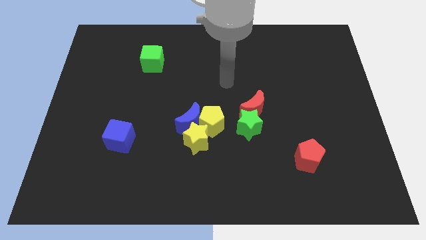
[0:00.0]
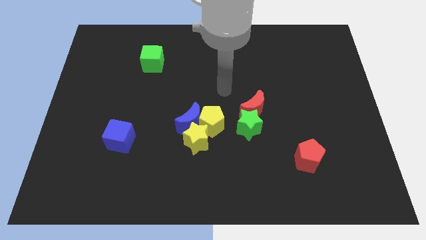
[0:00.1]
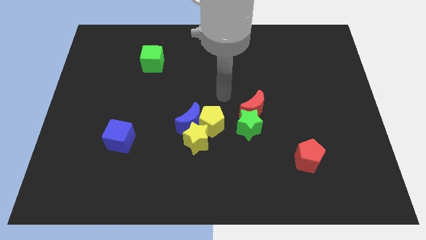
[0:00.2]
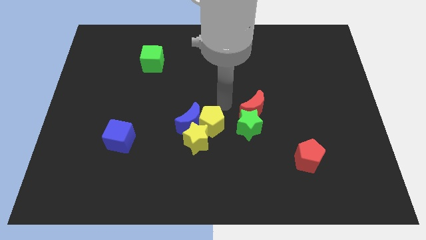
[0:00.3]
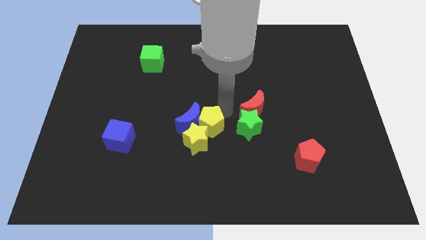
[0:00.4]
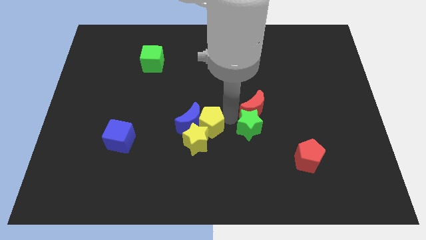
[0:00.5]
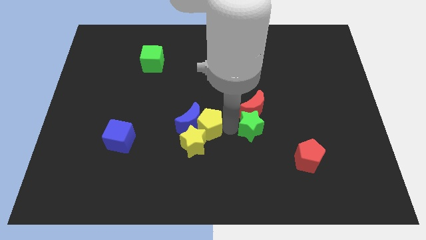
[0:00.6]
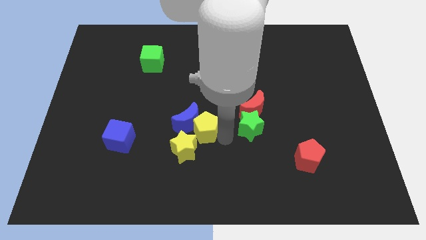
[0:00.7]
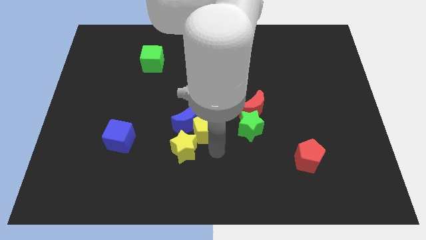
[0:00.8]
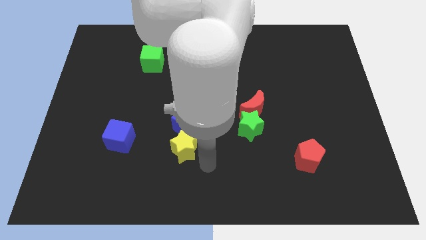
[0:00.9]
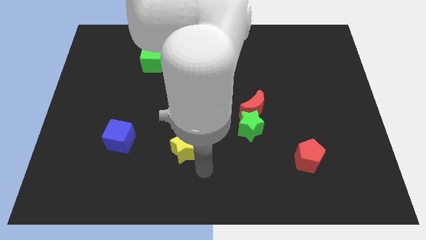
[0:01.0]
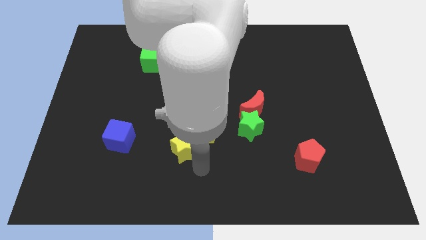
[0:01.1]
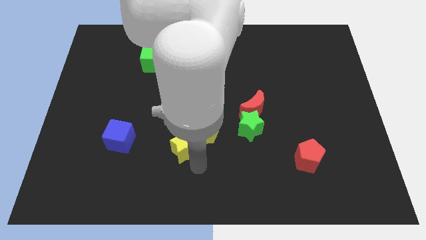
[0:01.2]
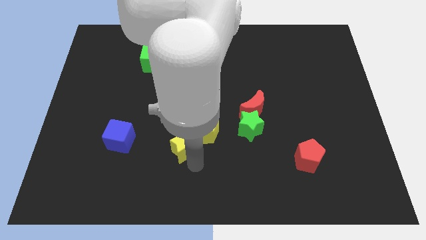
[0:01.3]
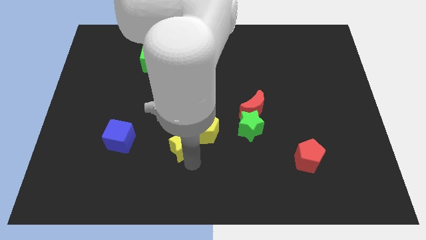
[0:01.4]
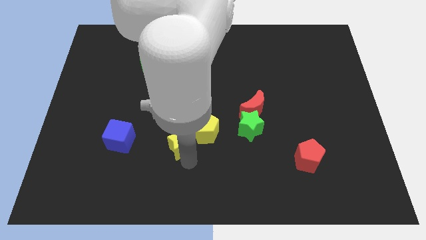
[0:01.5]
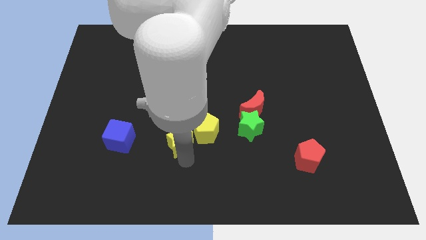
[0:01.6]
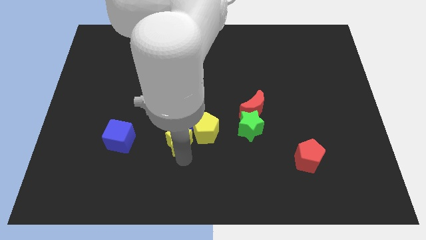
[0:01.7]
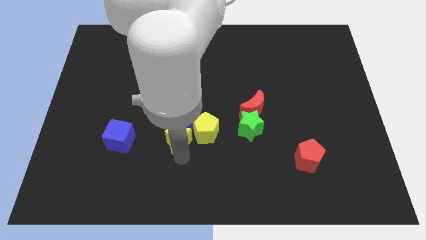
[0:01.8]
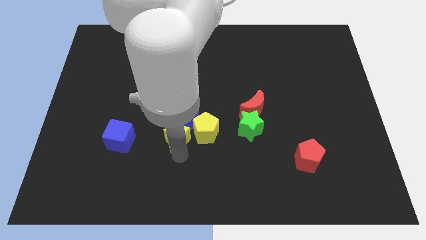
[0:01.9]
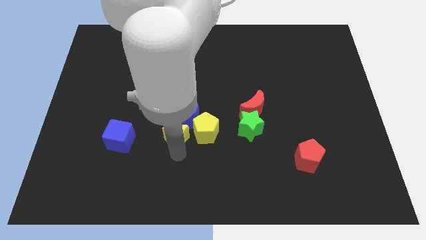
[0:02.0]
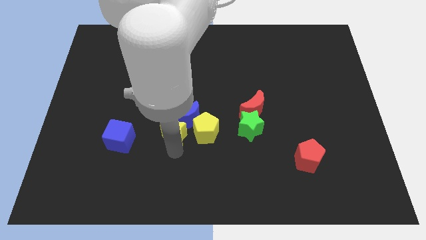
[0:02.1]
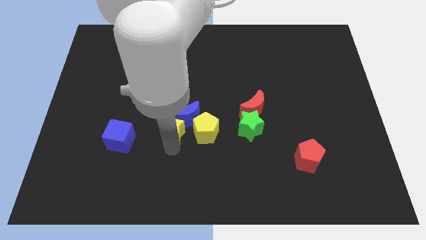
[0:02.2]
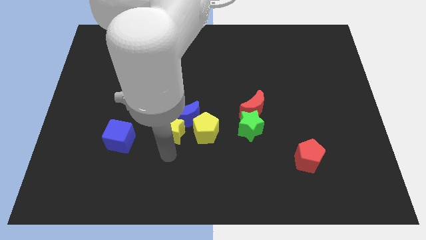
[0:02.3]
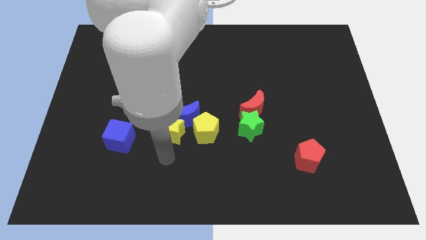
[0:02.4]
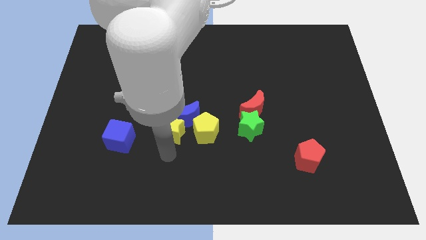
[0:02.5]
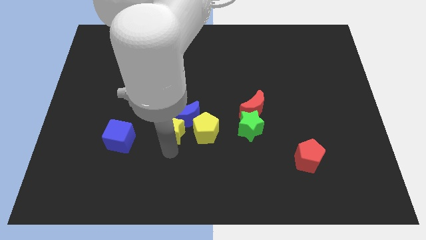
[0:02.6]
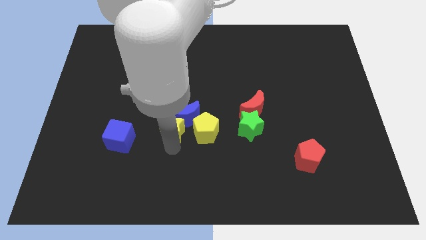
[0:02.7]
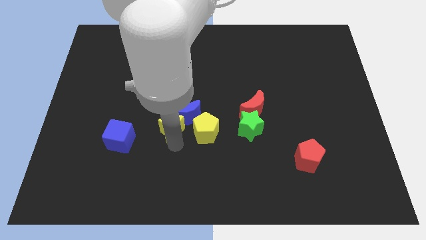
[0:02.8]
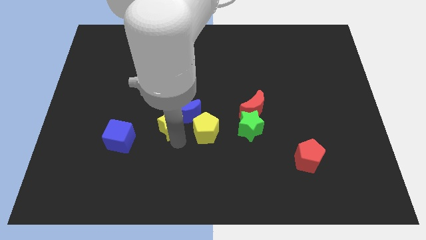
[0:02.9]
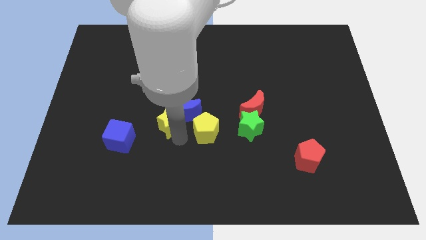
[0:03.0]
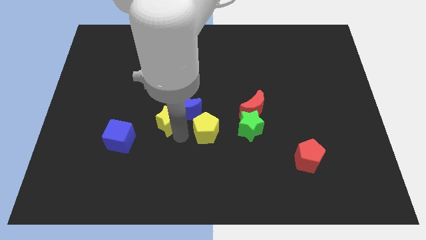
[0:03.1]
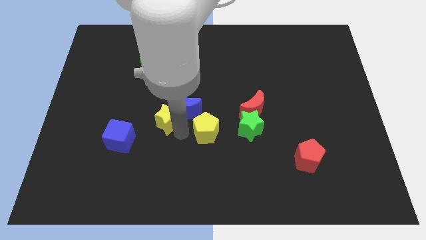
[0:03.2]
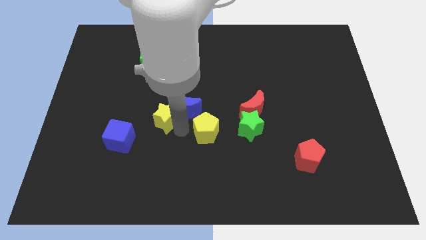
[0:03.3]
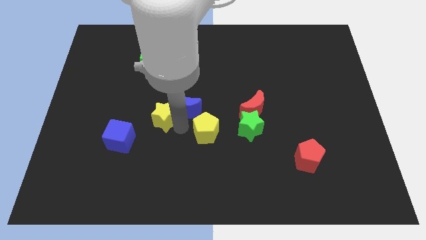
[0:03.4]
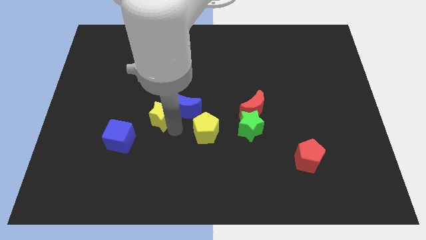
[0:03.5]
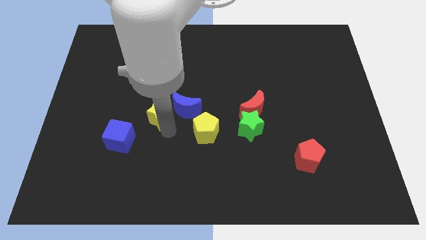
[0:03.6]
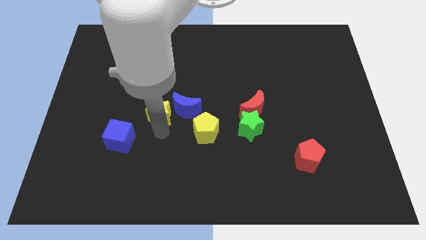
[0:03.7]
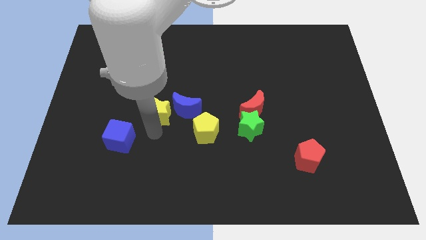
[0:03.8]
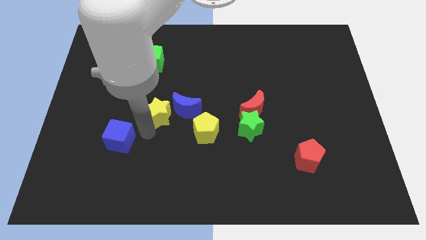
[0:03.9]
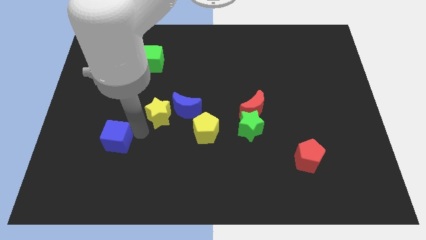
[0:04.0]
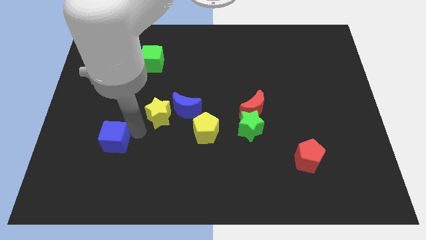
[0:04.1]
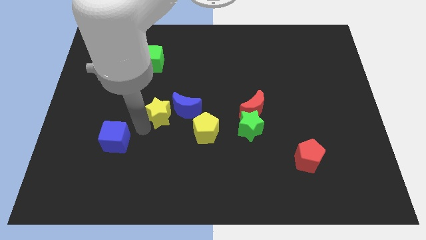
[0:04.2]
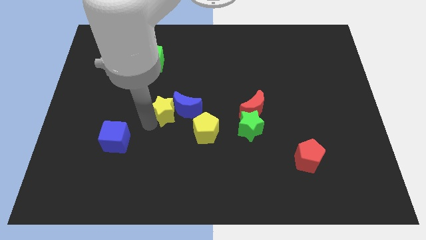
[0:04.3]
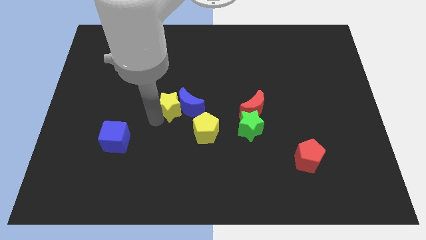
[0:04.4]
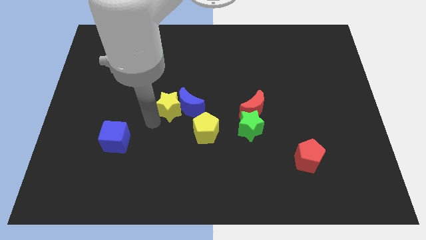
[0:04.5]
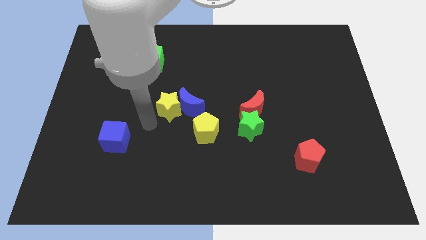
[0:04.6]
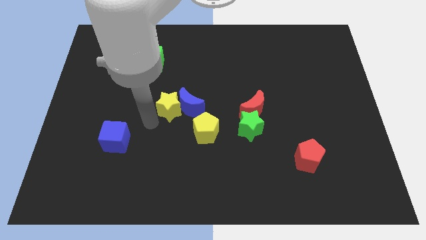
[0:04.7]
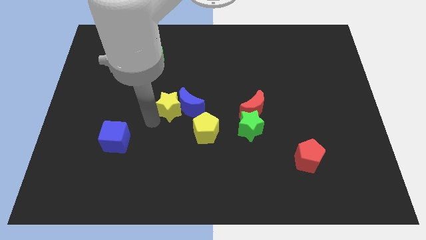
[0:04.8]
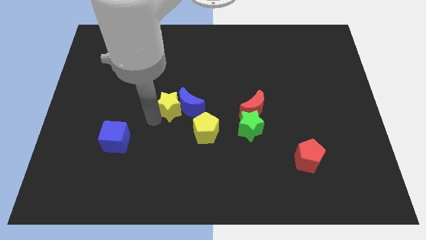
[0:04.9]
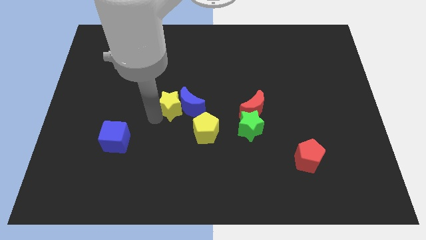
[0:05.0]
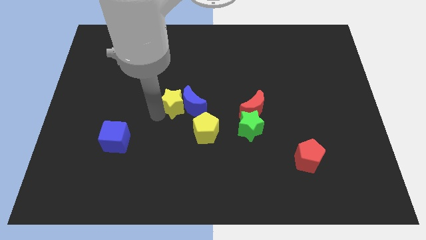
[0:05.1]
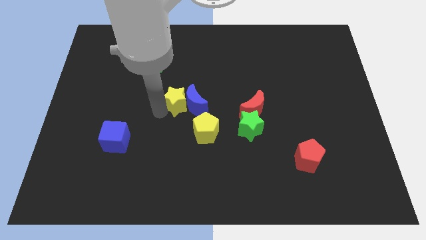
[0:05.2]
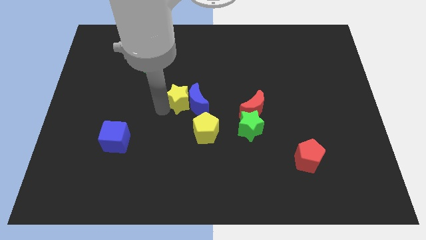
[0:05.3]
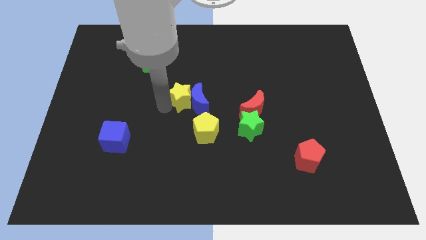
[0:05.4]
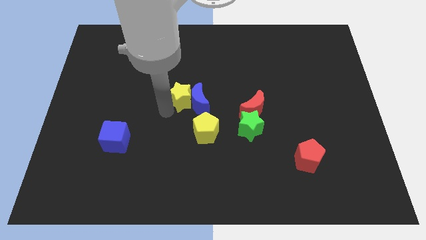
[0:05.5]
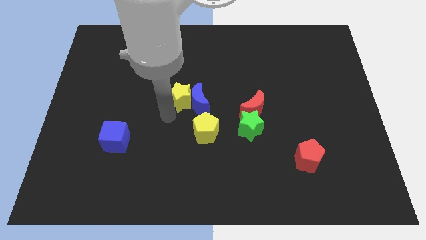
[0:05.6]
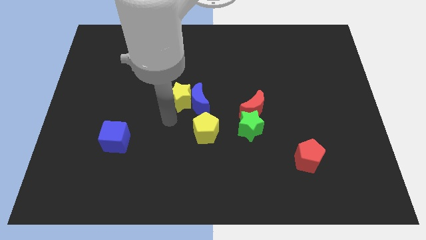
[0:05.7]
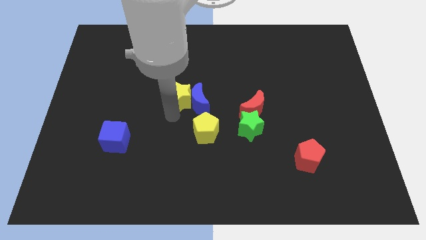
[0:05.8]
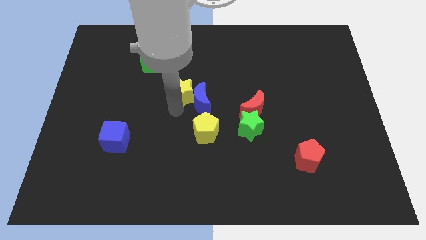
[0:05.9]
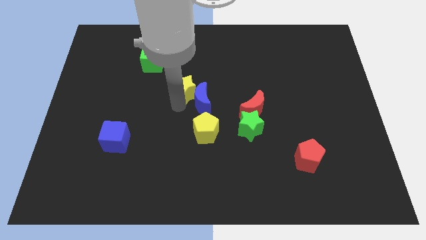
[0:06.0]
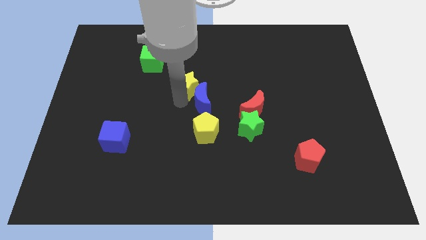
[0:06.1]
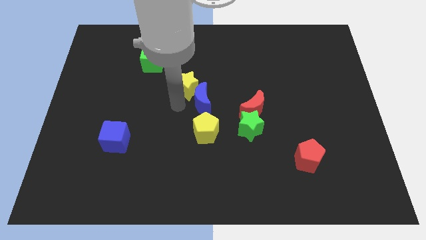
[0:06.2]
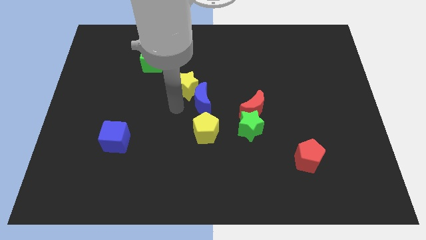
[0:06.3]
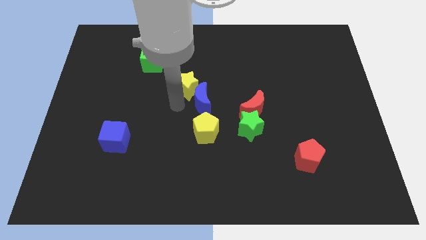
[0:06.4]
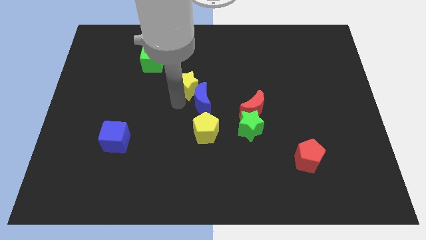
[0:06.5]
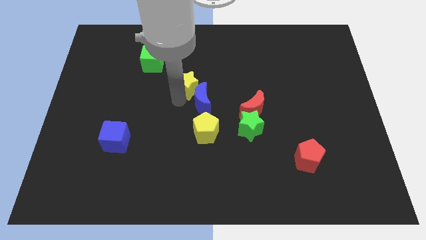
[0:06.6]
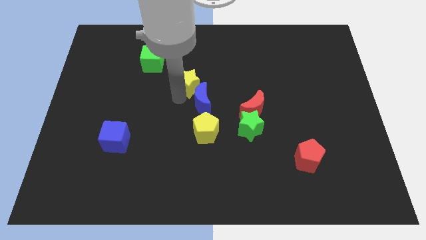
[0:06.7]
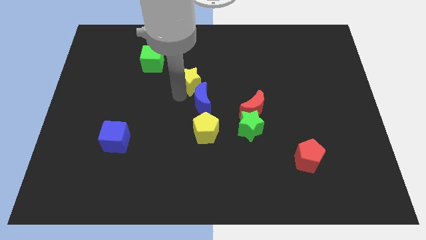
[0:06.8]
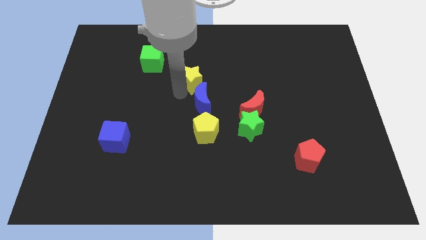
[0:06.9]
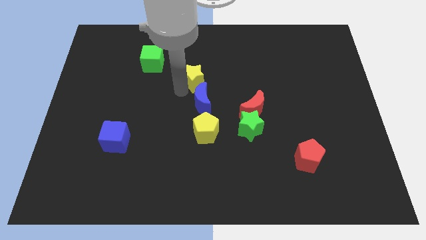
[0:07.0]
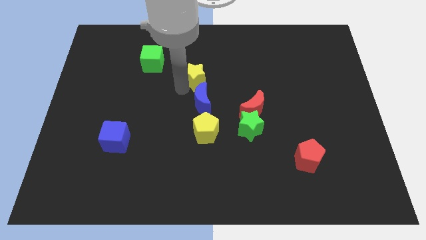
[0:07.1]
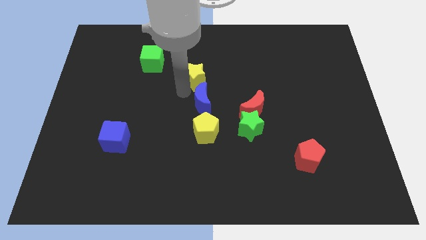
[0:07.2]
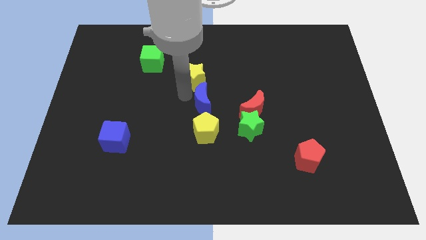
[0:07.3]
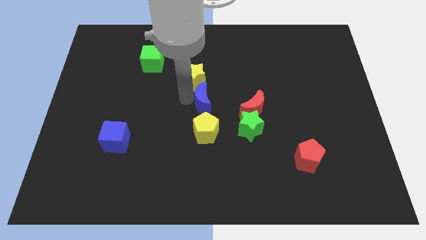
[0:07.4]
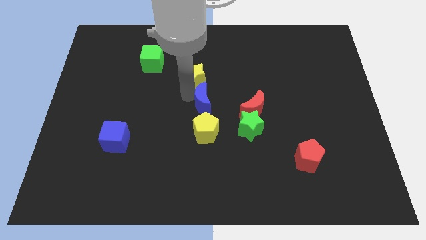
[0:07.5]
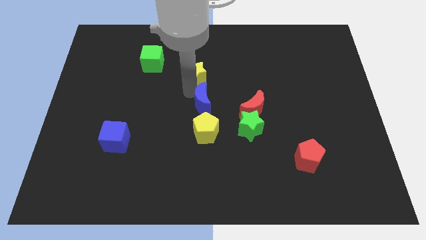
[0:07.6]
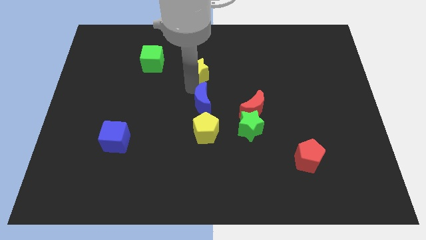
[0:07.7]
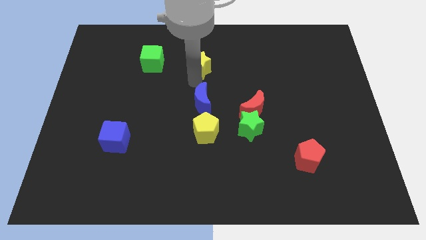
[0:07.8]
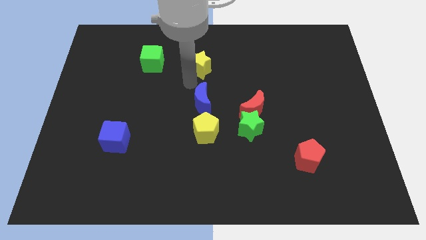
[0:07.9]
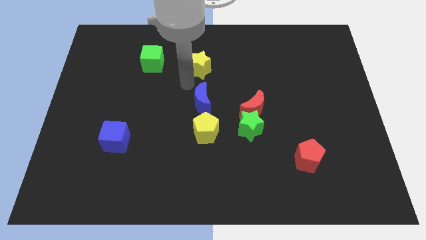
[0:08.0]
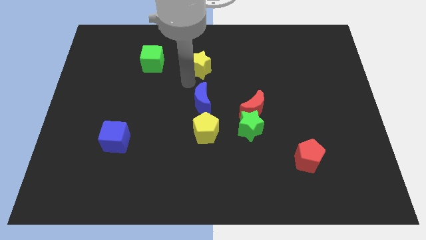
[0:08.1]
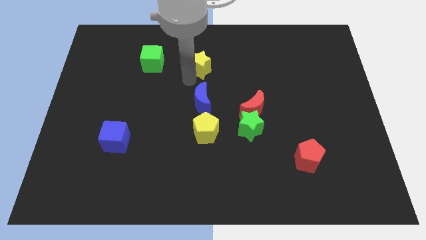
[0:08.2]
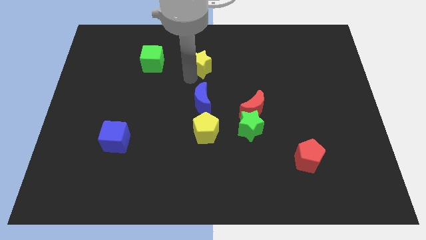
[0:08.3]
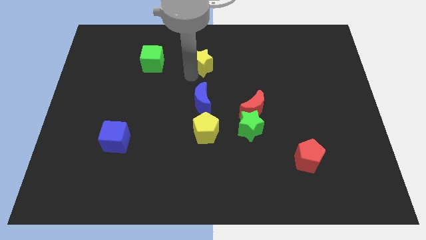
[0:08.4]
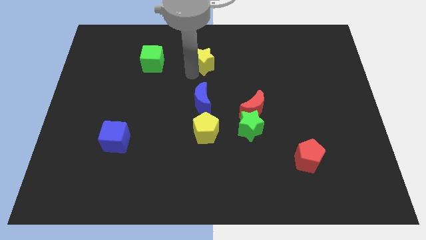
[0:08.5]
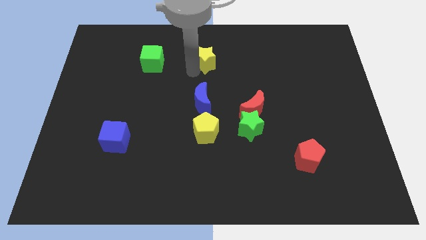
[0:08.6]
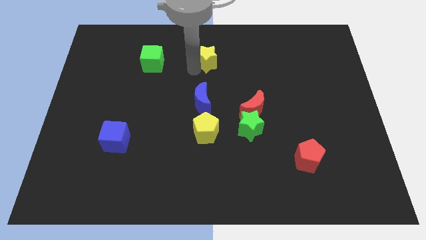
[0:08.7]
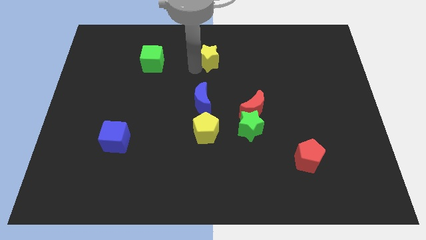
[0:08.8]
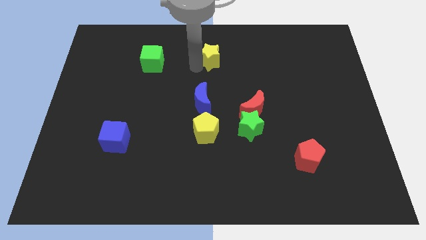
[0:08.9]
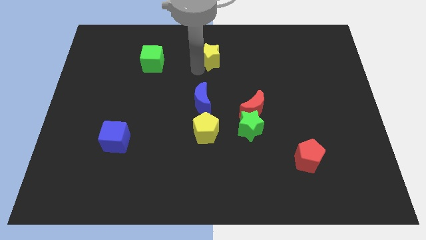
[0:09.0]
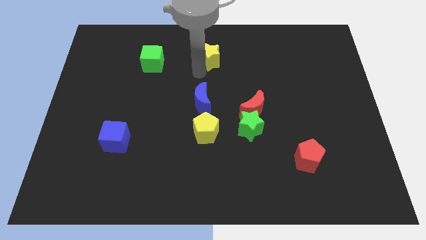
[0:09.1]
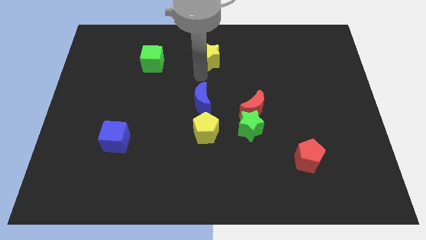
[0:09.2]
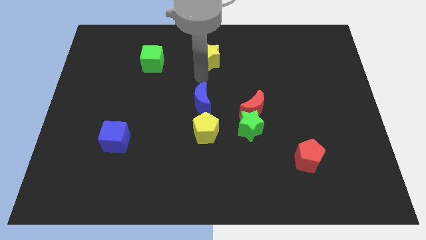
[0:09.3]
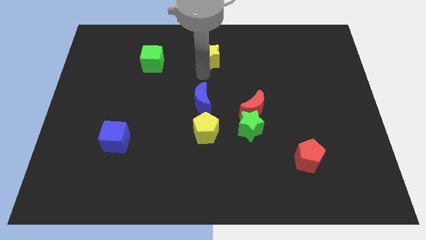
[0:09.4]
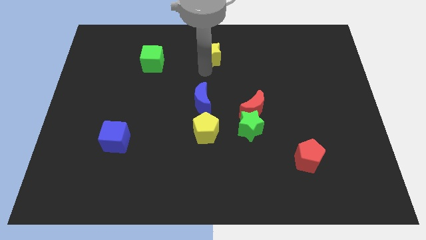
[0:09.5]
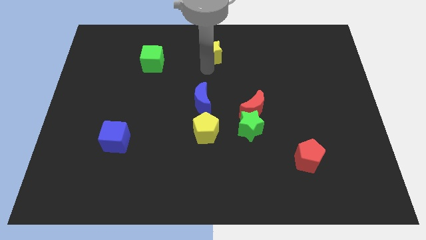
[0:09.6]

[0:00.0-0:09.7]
put the yellow star to the top
